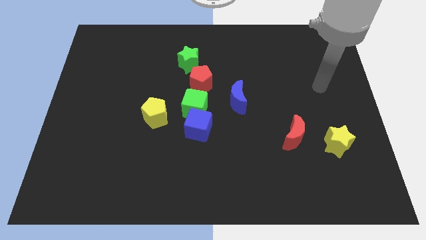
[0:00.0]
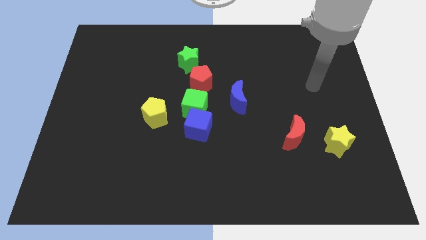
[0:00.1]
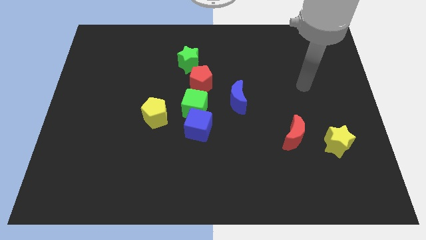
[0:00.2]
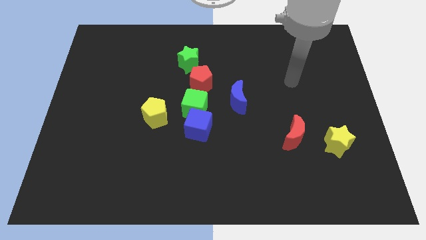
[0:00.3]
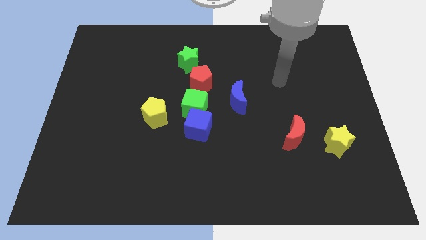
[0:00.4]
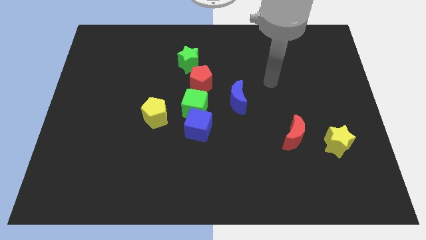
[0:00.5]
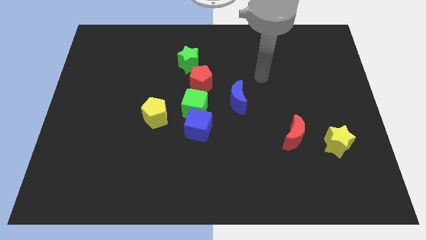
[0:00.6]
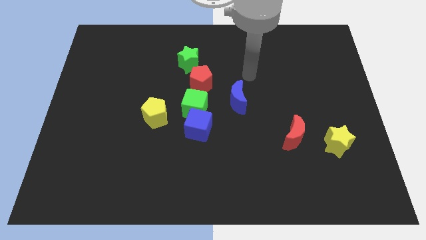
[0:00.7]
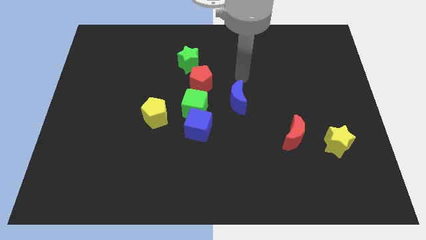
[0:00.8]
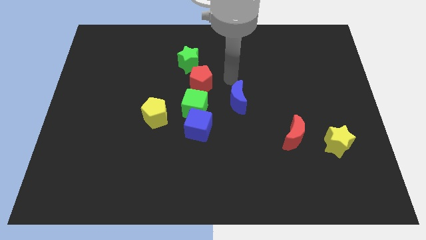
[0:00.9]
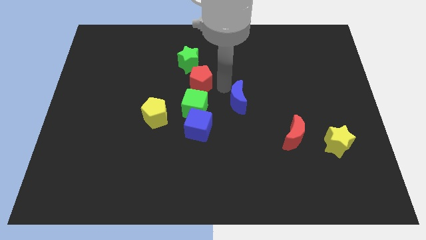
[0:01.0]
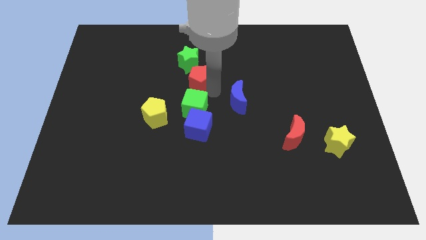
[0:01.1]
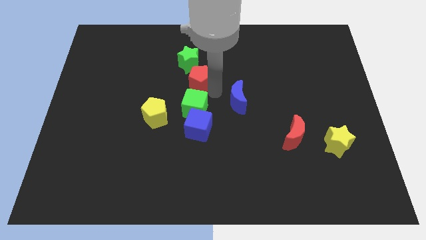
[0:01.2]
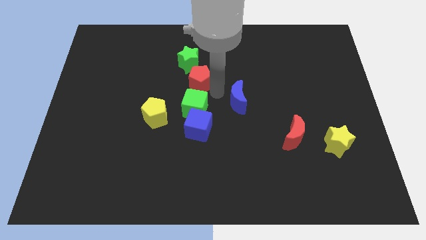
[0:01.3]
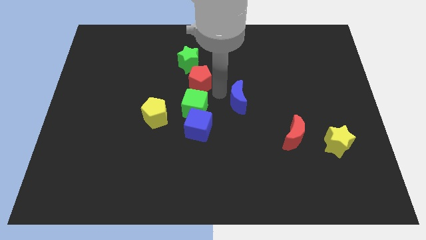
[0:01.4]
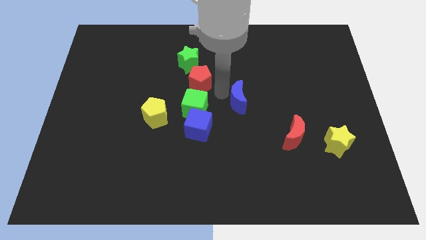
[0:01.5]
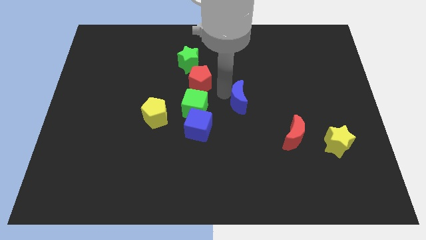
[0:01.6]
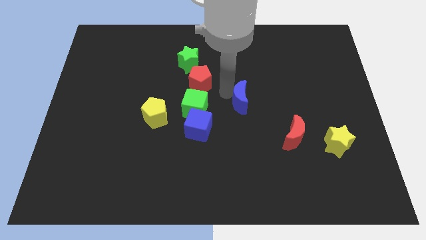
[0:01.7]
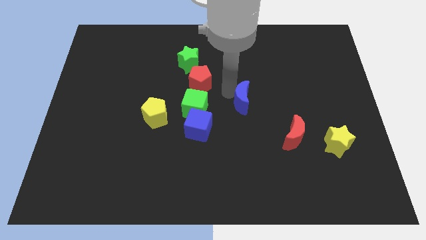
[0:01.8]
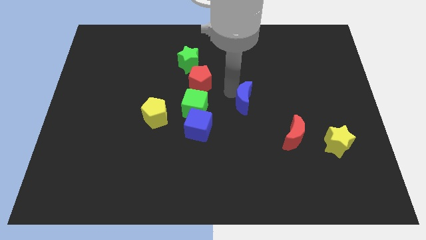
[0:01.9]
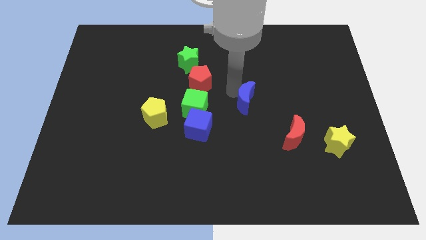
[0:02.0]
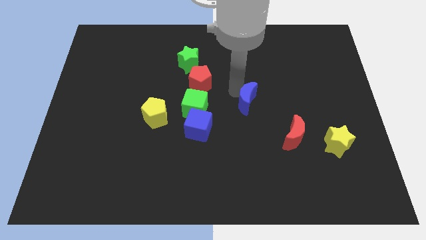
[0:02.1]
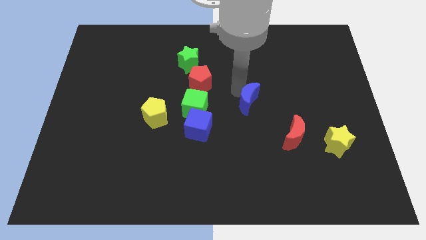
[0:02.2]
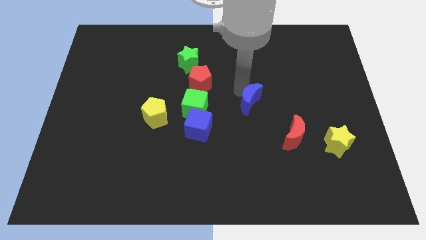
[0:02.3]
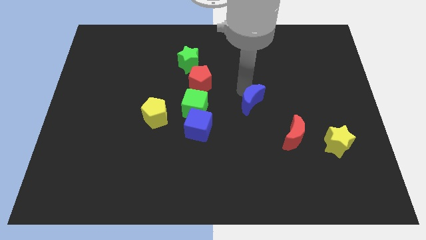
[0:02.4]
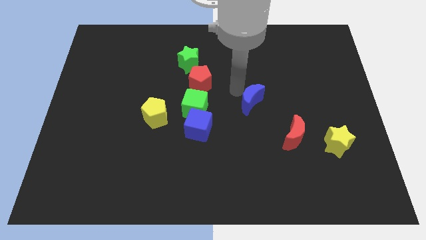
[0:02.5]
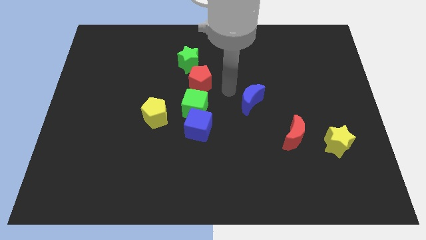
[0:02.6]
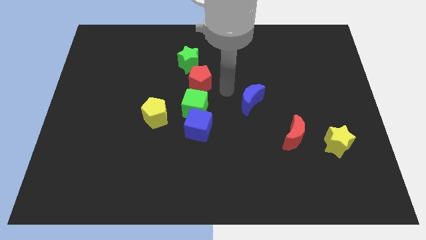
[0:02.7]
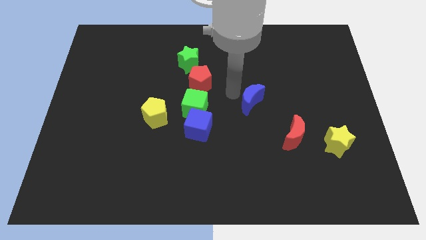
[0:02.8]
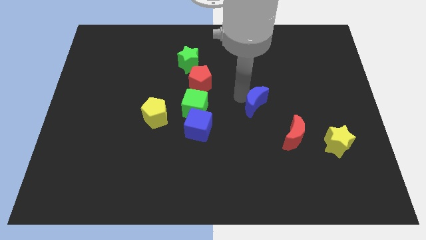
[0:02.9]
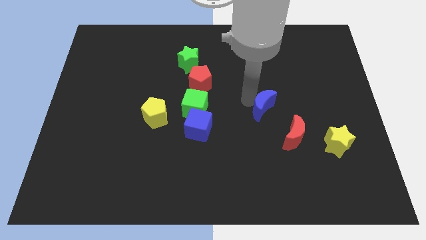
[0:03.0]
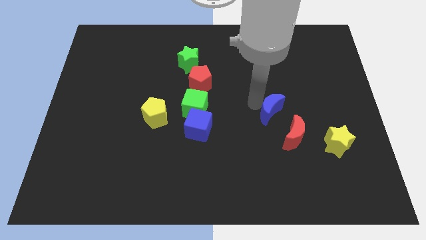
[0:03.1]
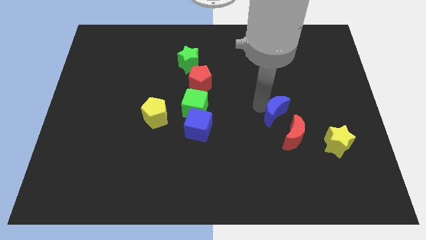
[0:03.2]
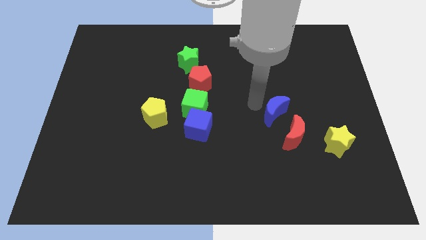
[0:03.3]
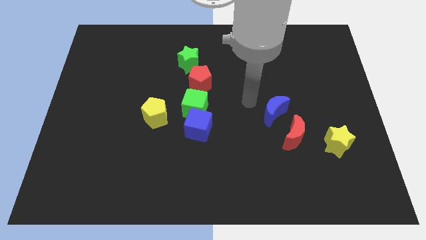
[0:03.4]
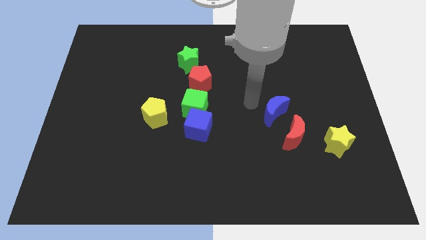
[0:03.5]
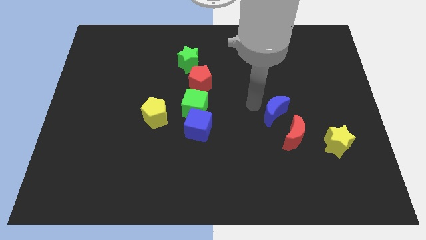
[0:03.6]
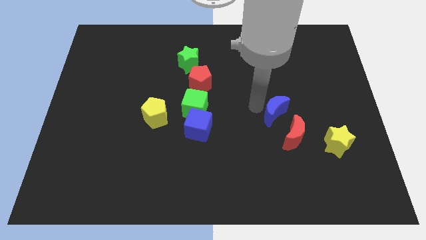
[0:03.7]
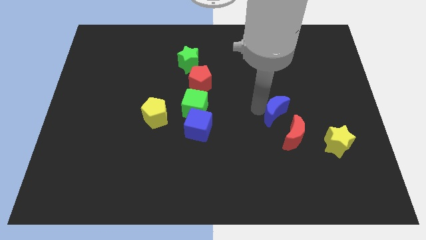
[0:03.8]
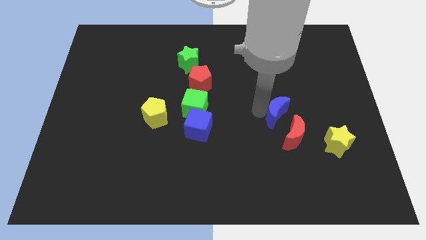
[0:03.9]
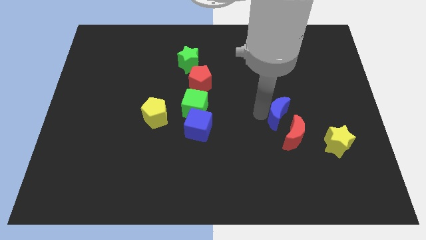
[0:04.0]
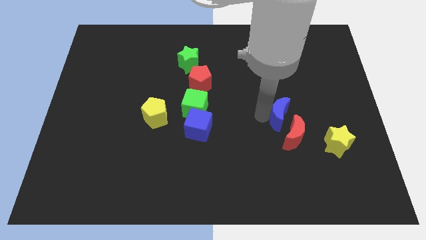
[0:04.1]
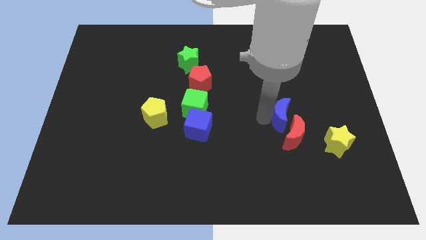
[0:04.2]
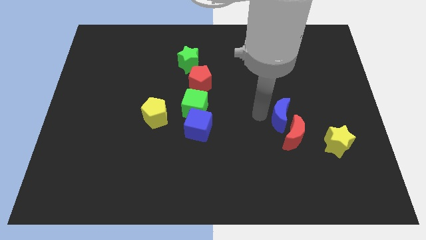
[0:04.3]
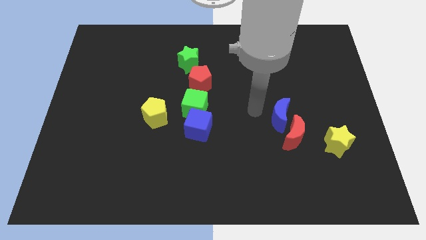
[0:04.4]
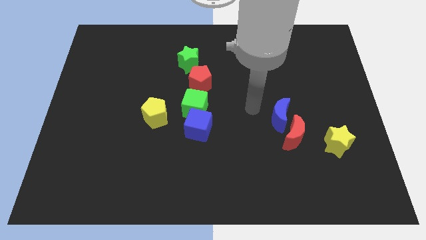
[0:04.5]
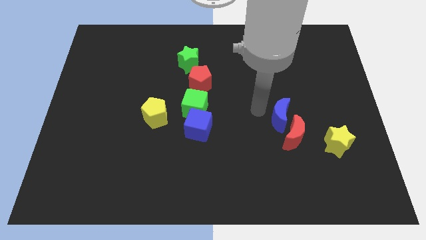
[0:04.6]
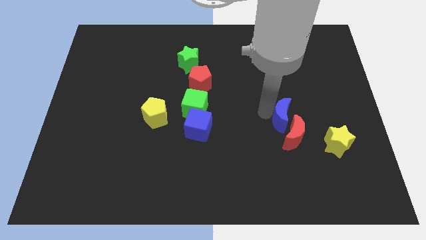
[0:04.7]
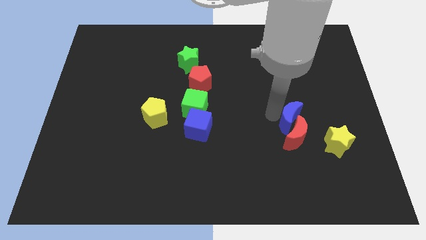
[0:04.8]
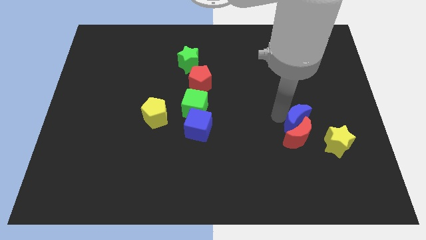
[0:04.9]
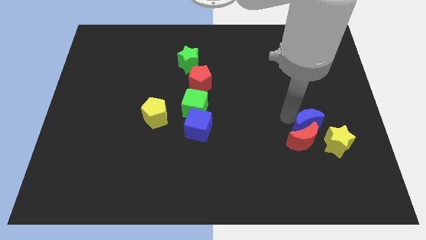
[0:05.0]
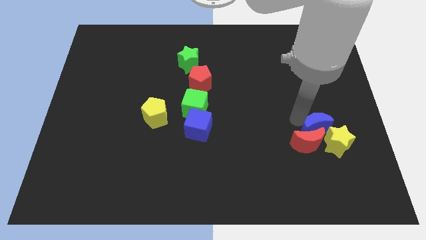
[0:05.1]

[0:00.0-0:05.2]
move the blue moon to the yellow star

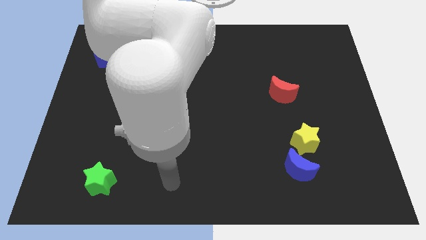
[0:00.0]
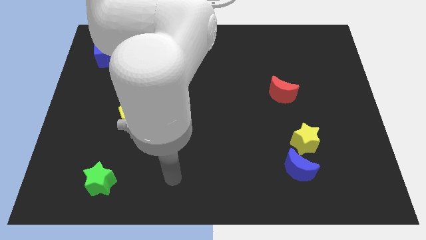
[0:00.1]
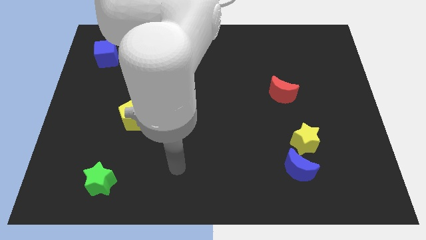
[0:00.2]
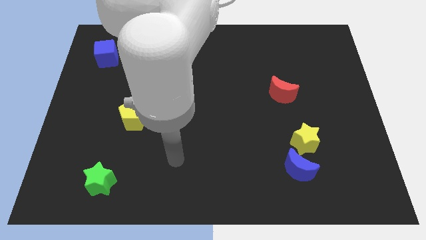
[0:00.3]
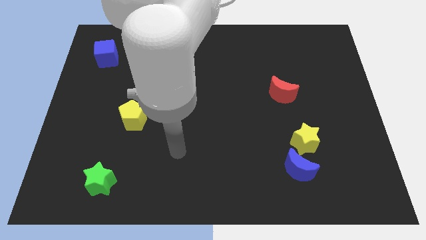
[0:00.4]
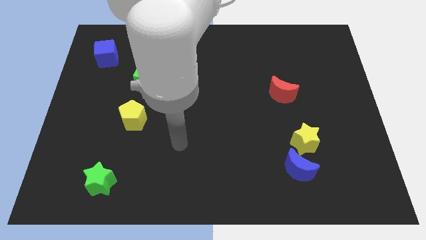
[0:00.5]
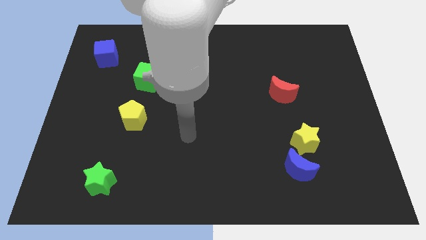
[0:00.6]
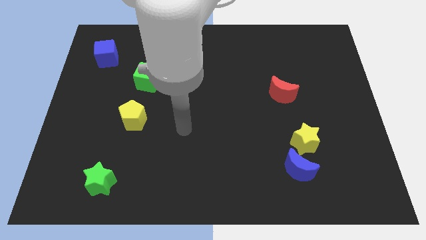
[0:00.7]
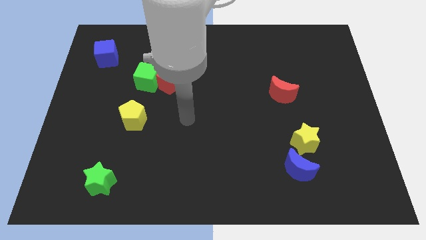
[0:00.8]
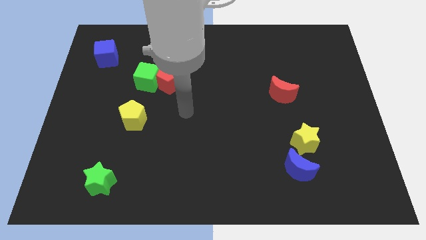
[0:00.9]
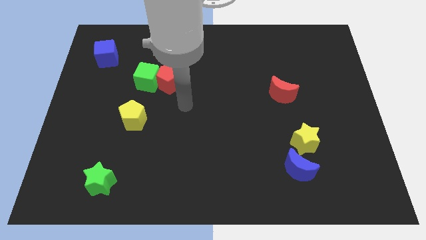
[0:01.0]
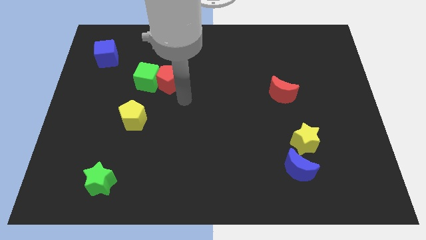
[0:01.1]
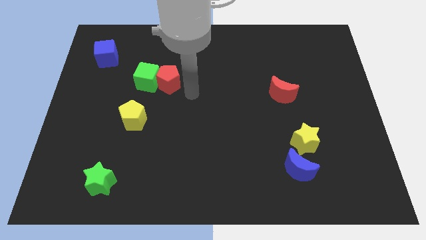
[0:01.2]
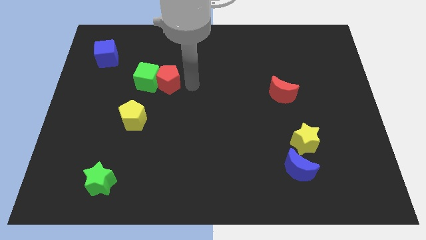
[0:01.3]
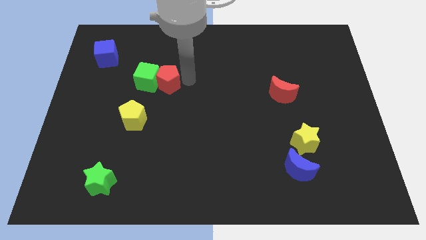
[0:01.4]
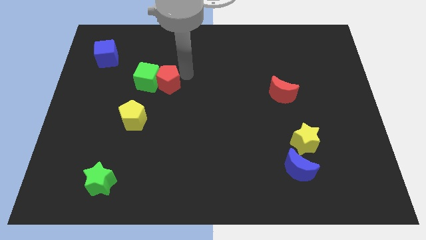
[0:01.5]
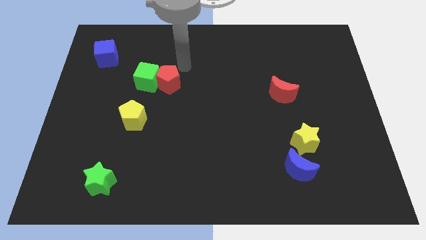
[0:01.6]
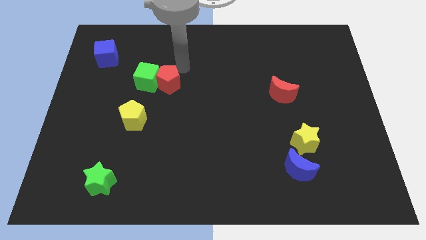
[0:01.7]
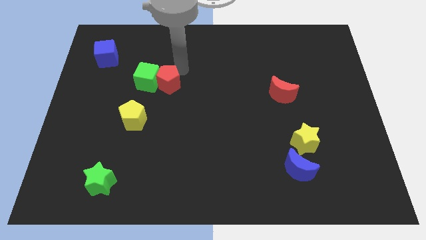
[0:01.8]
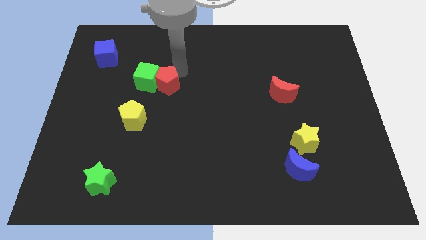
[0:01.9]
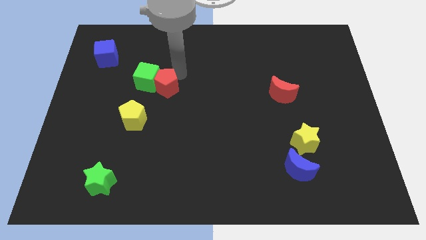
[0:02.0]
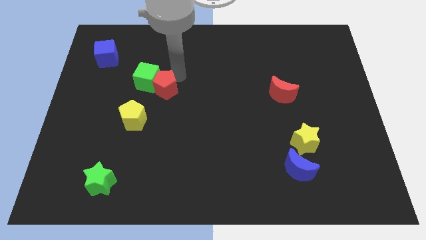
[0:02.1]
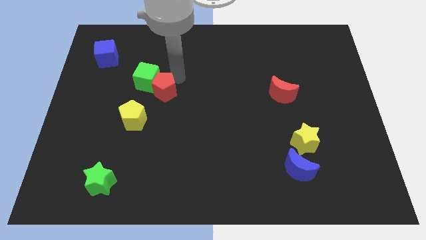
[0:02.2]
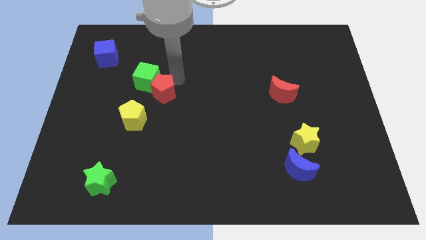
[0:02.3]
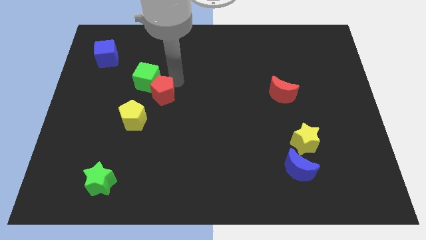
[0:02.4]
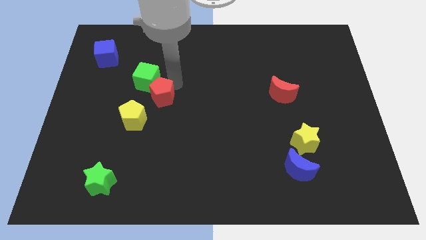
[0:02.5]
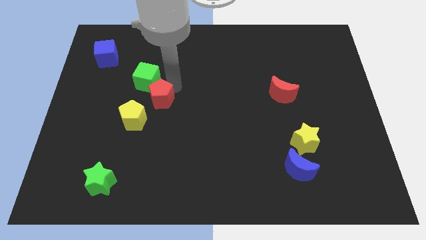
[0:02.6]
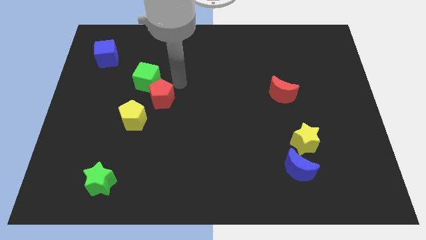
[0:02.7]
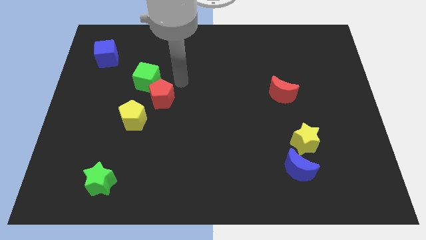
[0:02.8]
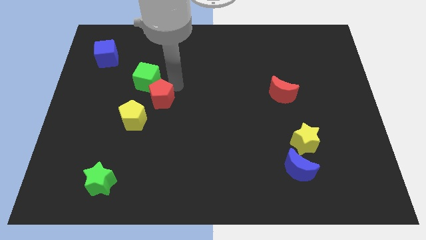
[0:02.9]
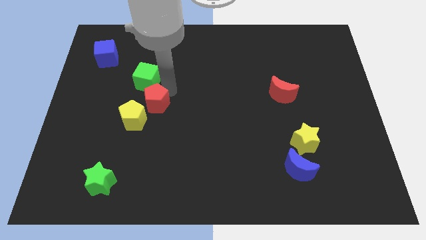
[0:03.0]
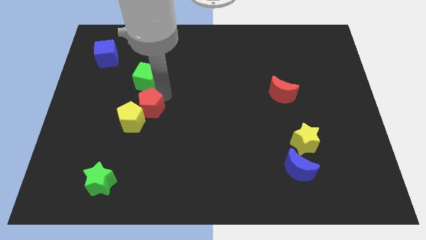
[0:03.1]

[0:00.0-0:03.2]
move the red pentagon towards the yellow pentagon
